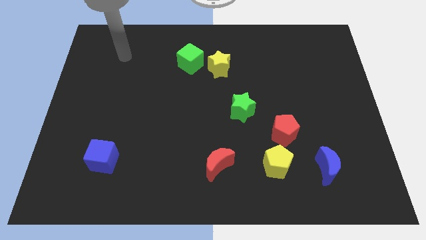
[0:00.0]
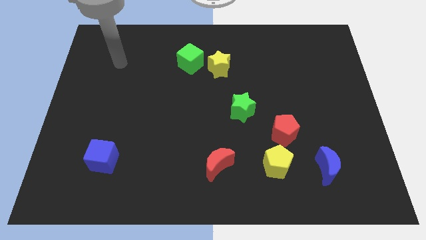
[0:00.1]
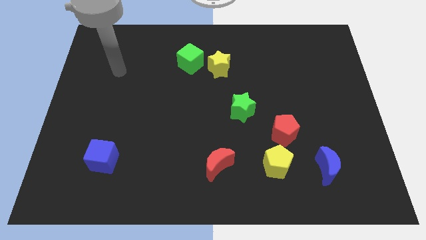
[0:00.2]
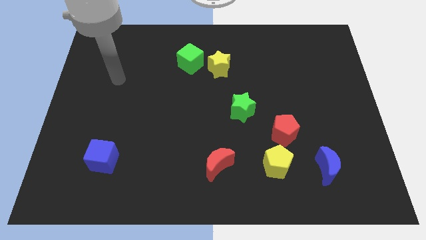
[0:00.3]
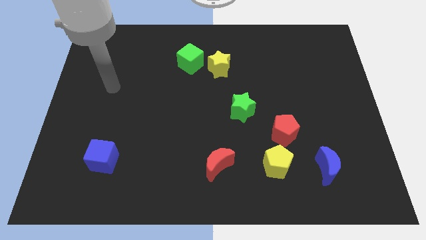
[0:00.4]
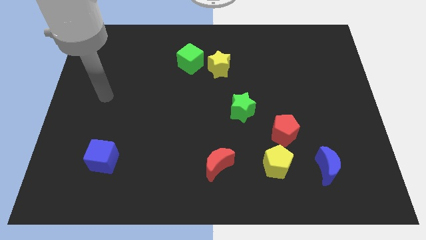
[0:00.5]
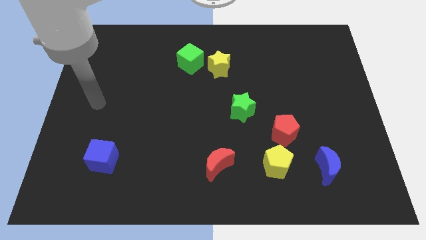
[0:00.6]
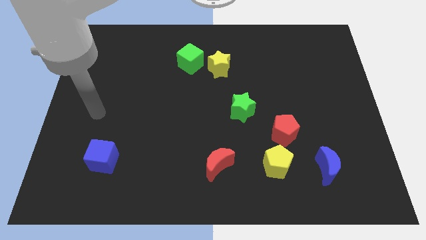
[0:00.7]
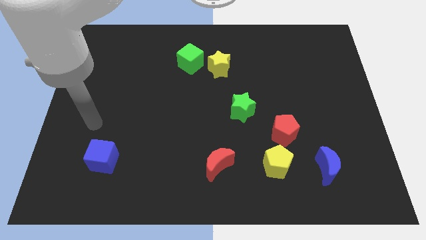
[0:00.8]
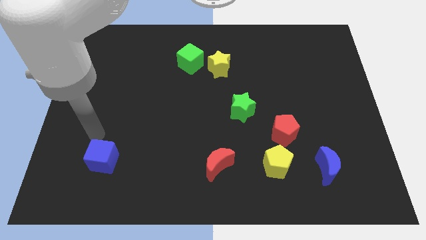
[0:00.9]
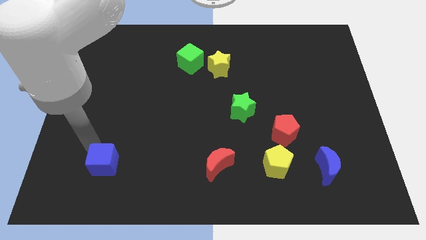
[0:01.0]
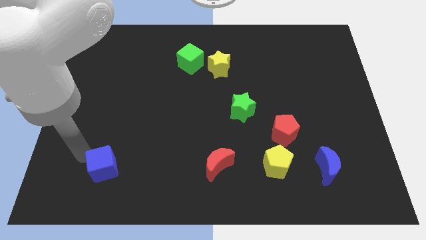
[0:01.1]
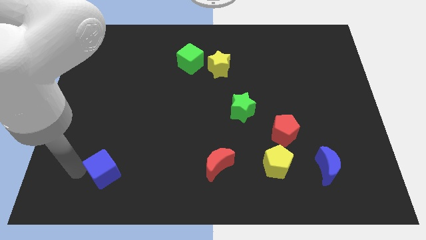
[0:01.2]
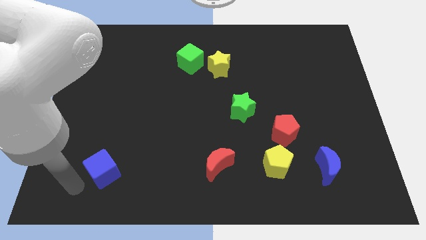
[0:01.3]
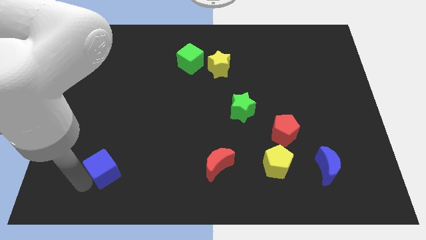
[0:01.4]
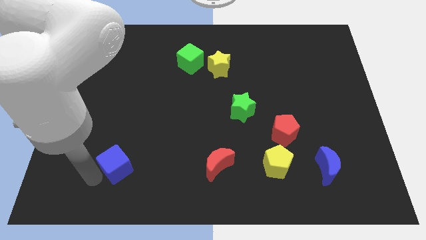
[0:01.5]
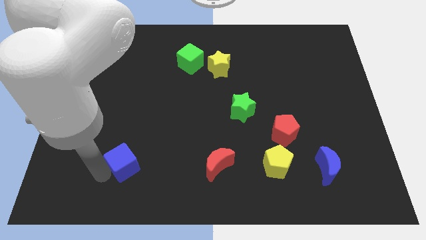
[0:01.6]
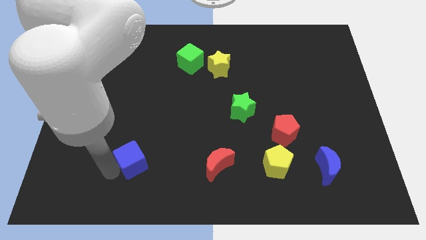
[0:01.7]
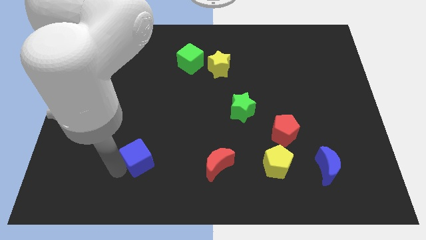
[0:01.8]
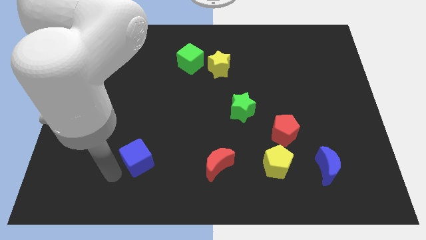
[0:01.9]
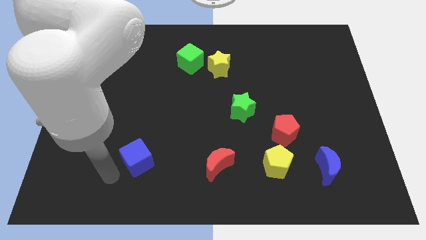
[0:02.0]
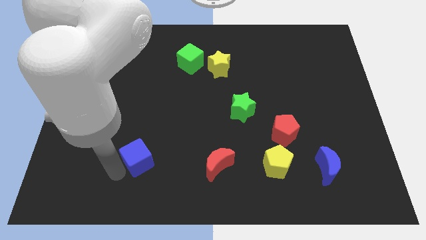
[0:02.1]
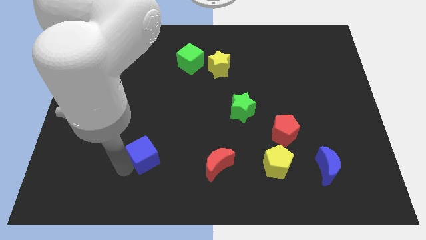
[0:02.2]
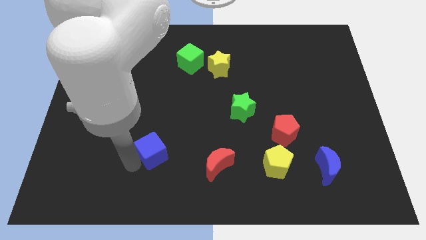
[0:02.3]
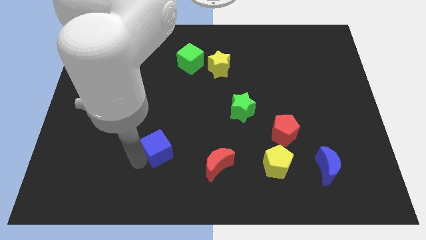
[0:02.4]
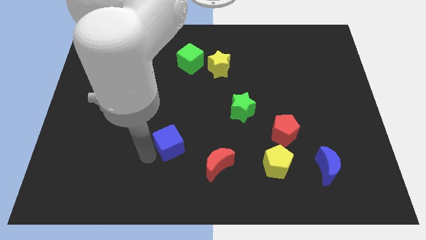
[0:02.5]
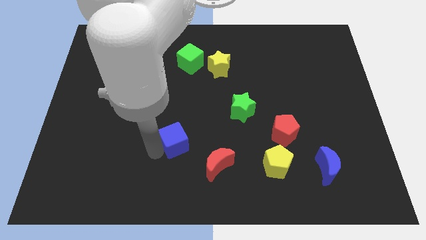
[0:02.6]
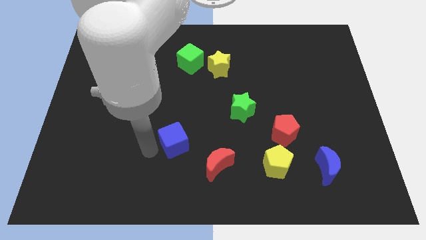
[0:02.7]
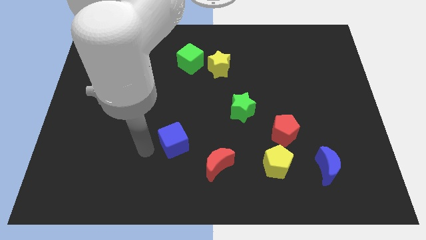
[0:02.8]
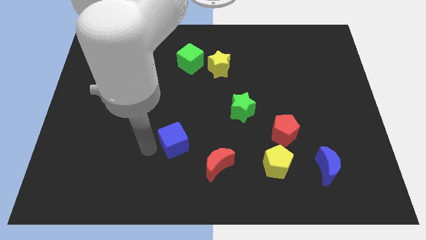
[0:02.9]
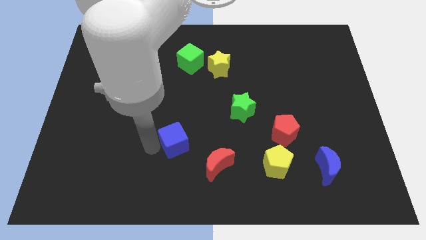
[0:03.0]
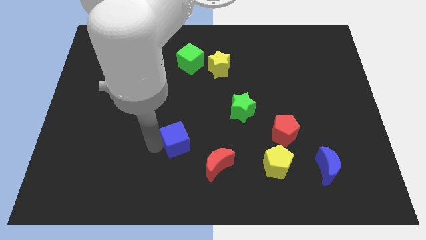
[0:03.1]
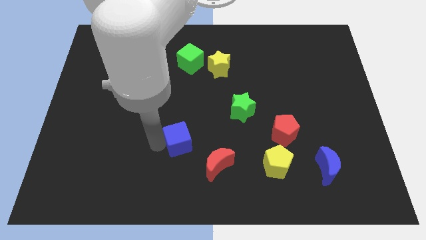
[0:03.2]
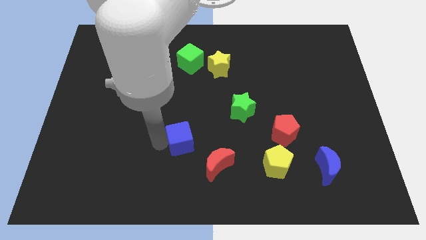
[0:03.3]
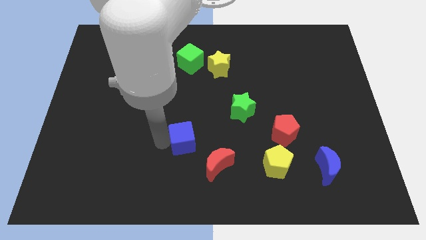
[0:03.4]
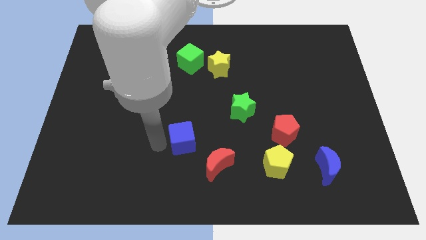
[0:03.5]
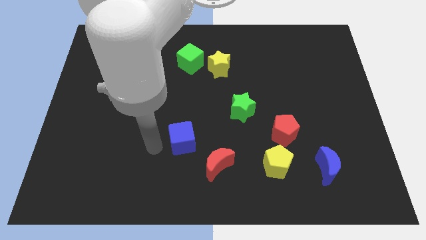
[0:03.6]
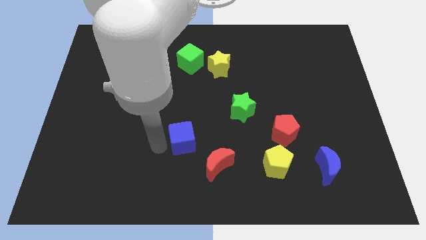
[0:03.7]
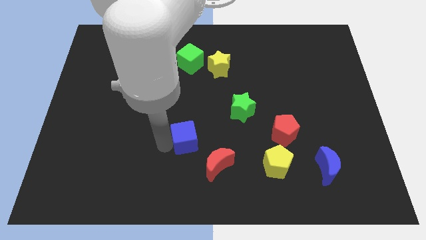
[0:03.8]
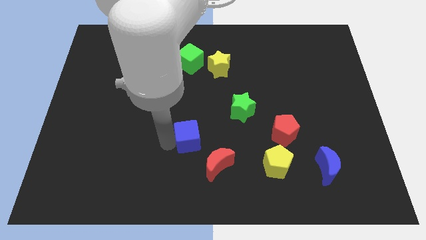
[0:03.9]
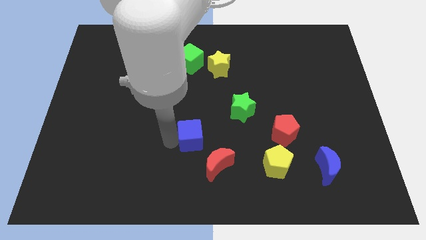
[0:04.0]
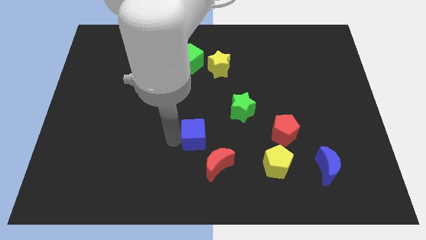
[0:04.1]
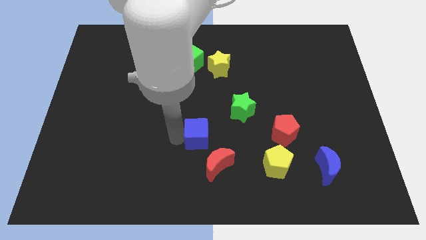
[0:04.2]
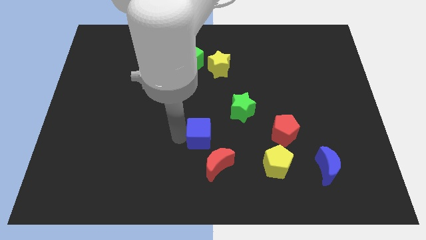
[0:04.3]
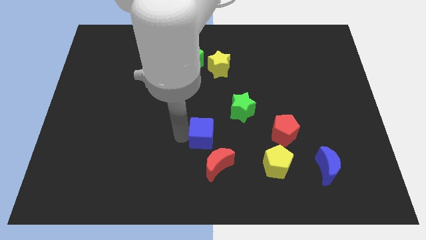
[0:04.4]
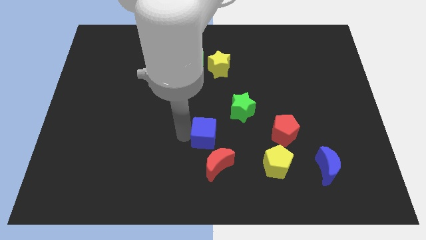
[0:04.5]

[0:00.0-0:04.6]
push the blue cube to the right

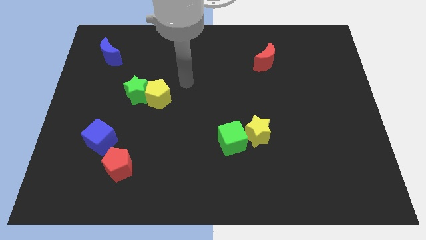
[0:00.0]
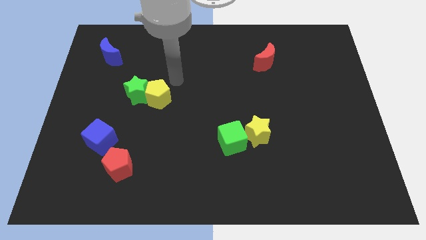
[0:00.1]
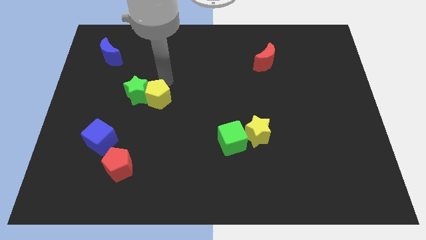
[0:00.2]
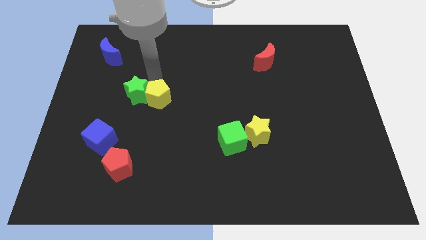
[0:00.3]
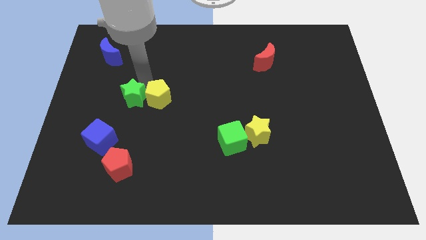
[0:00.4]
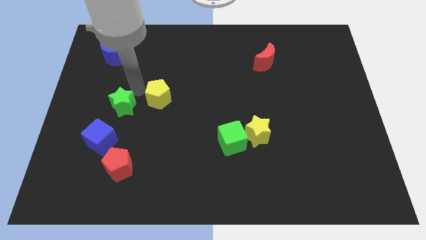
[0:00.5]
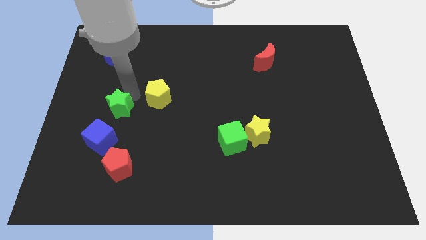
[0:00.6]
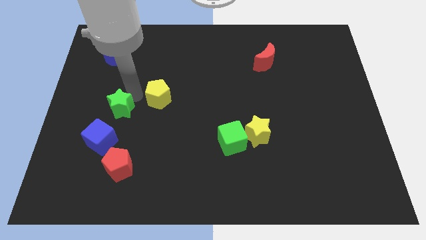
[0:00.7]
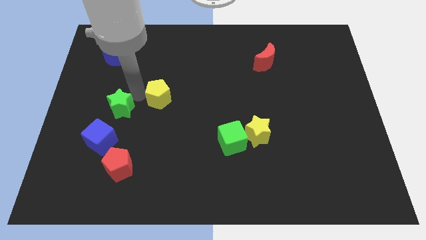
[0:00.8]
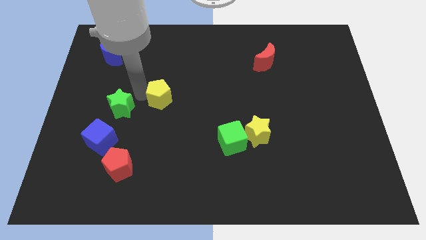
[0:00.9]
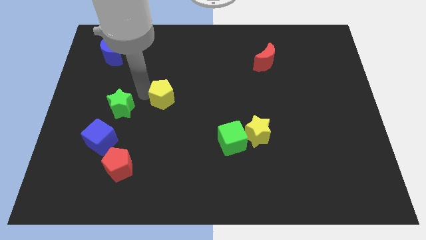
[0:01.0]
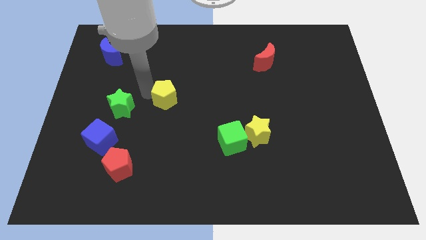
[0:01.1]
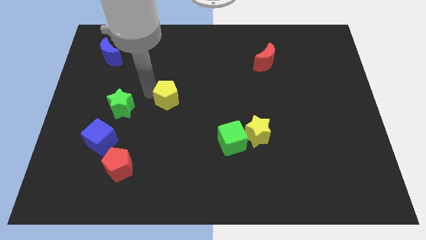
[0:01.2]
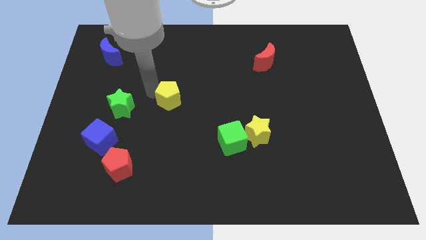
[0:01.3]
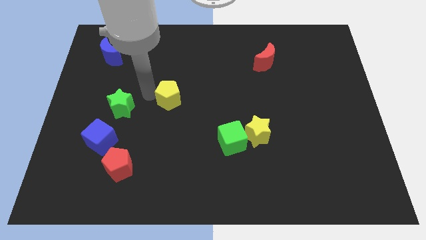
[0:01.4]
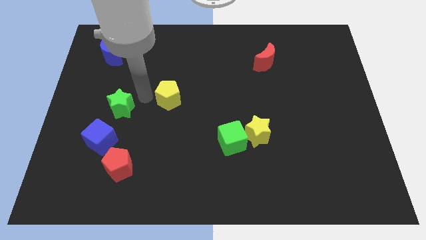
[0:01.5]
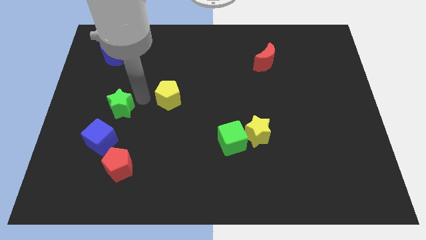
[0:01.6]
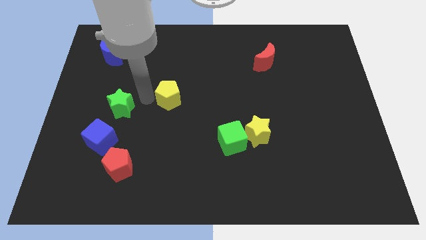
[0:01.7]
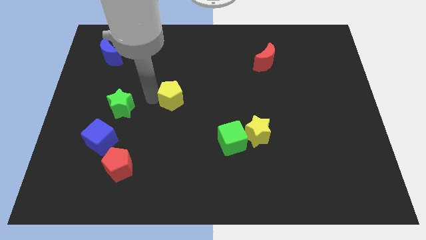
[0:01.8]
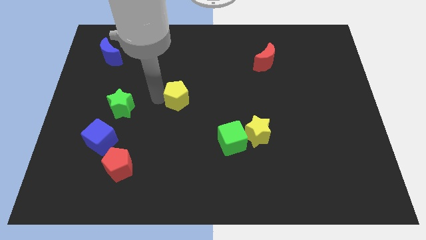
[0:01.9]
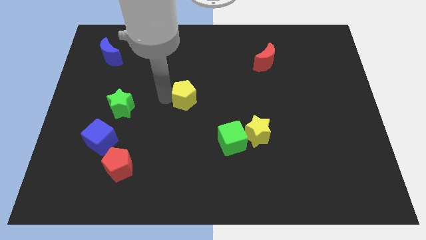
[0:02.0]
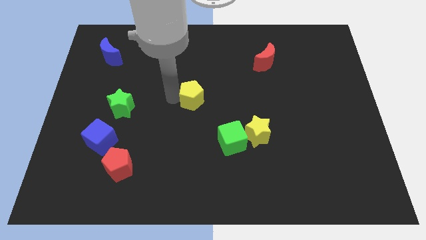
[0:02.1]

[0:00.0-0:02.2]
slide the yellow pentagon right somewhat

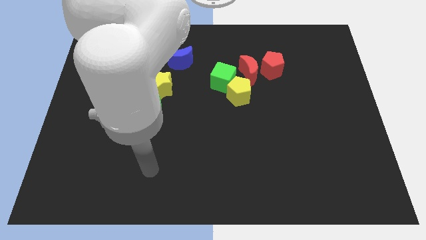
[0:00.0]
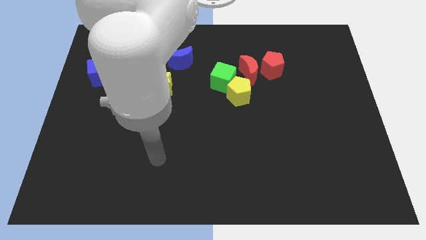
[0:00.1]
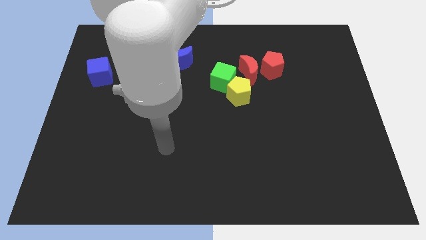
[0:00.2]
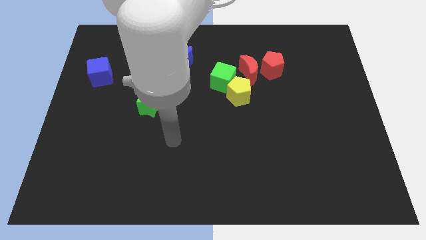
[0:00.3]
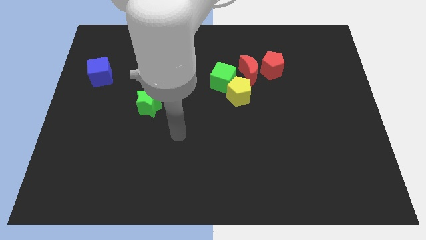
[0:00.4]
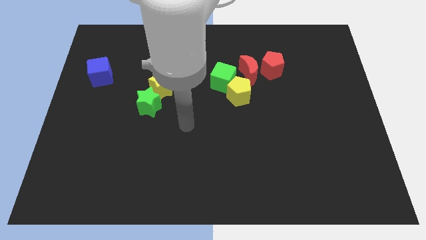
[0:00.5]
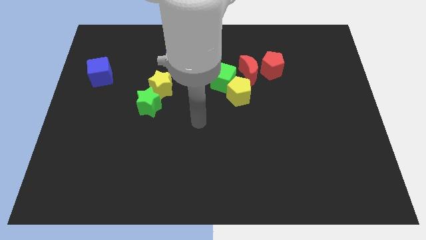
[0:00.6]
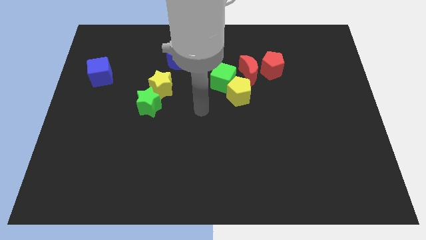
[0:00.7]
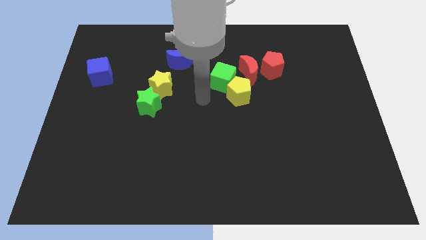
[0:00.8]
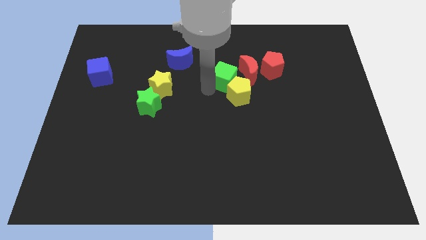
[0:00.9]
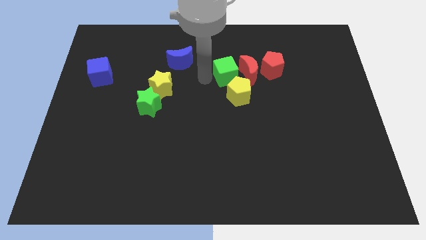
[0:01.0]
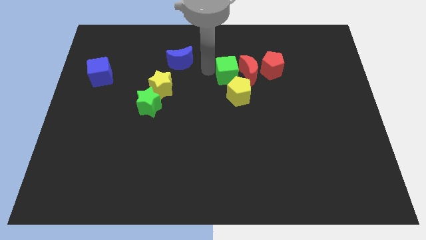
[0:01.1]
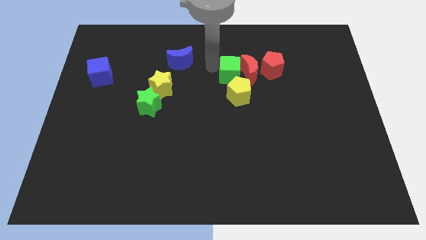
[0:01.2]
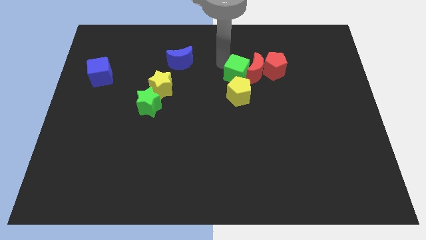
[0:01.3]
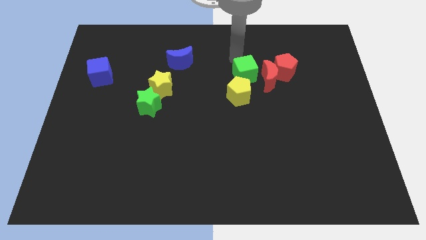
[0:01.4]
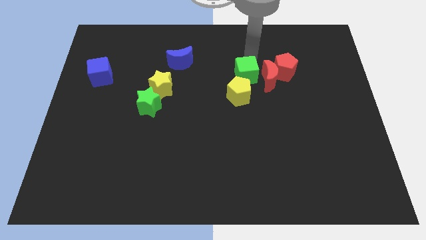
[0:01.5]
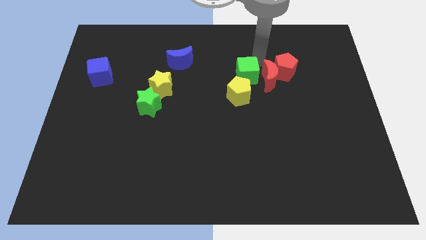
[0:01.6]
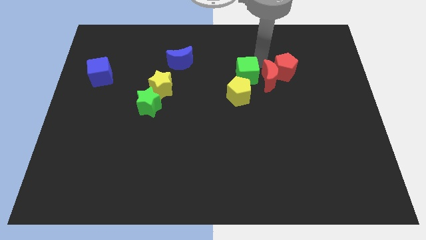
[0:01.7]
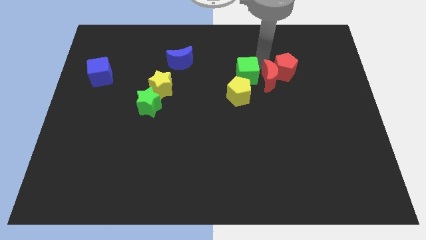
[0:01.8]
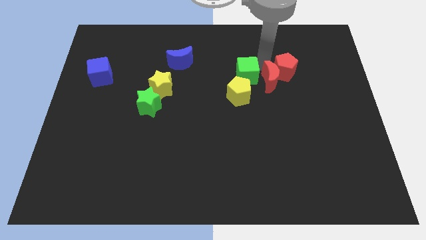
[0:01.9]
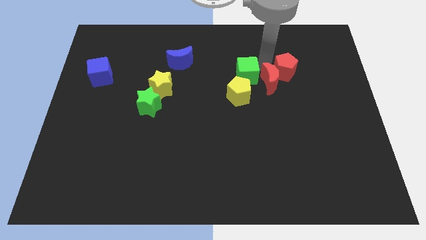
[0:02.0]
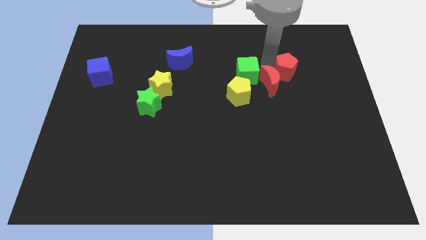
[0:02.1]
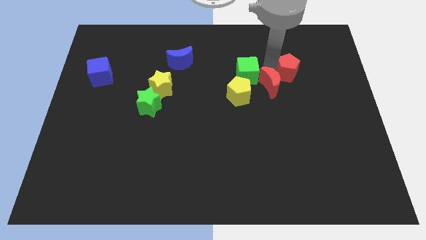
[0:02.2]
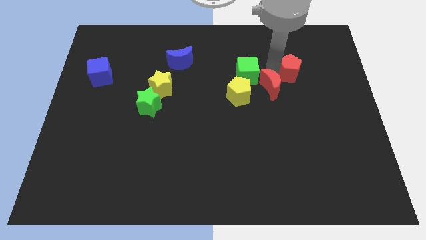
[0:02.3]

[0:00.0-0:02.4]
slightly move the red moon diagonally down and right
